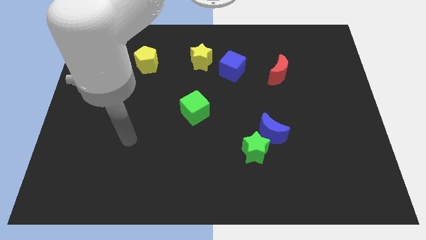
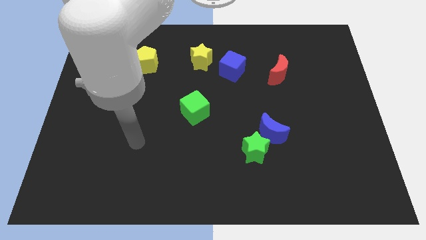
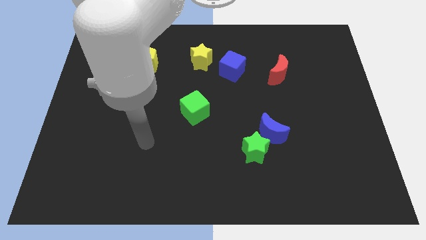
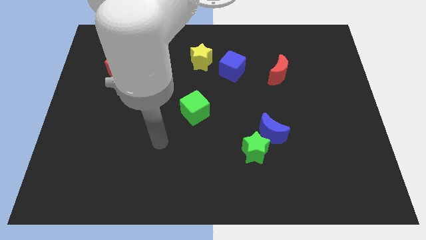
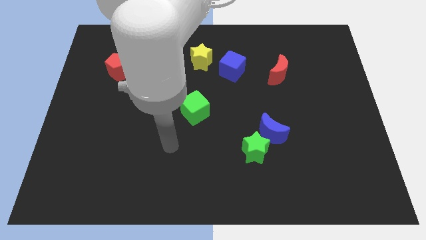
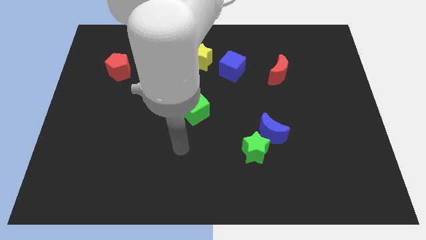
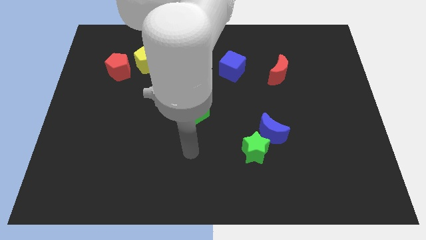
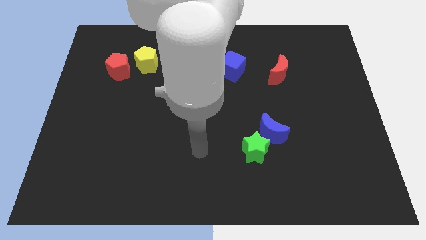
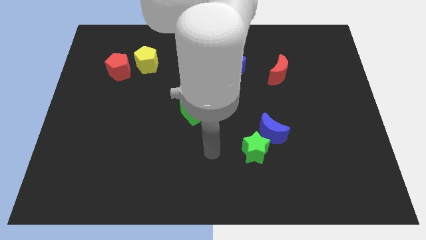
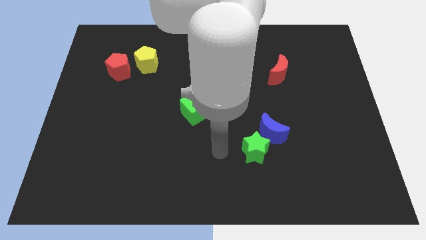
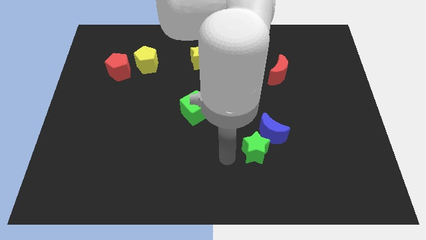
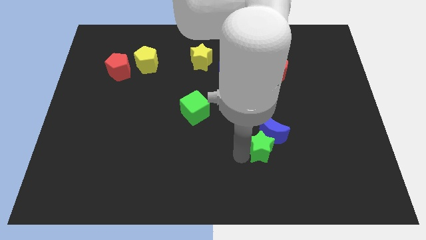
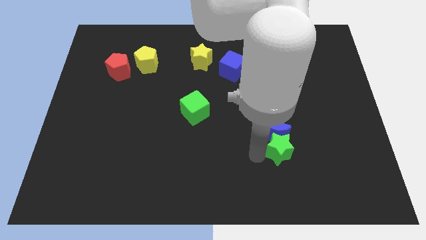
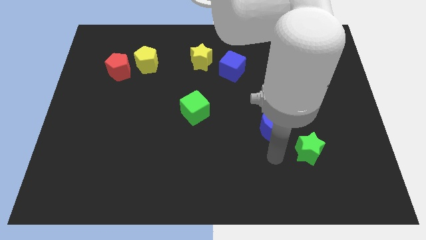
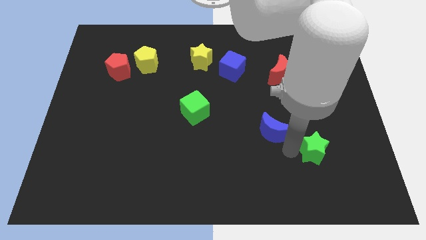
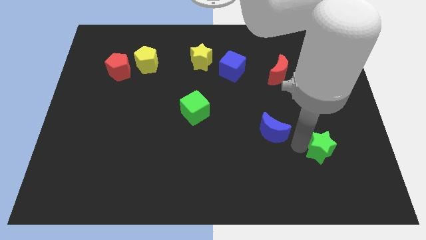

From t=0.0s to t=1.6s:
separate the blue moon from the green star

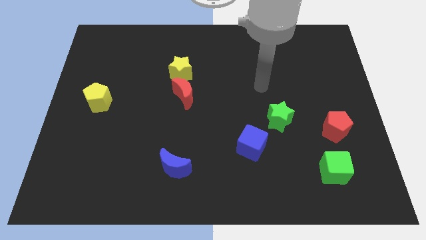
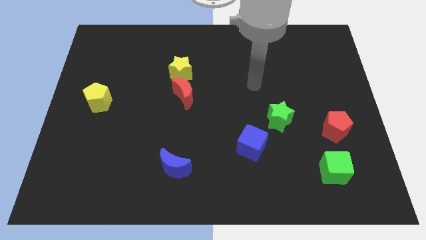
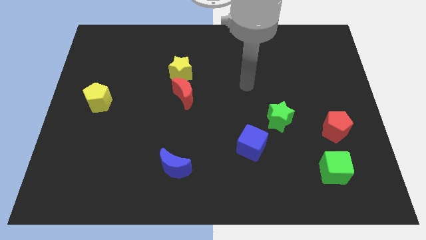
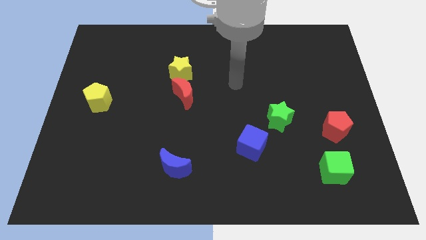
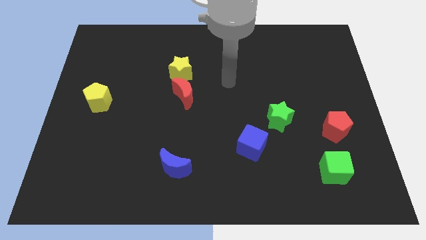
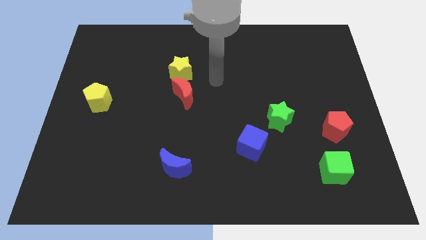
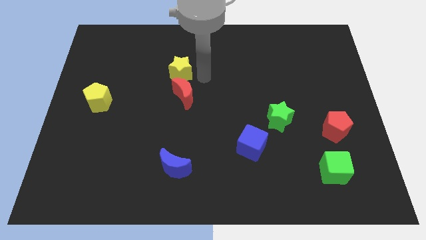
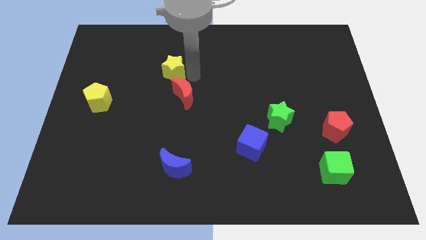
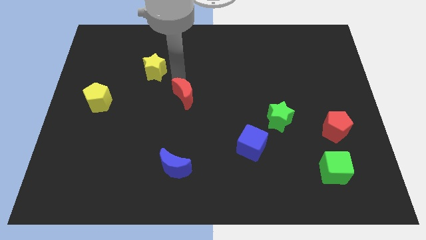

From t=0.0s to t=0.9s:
pull the red moon apart from the yellow star

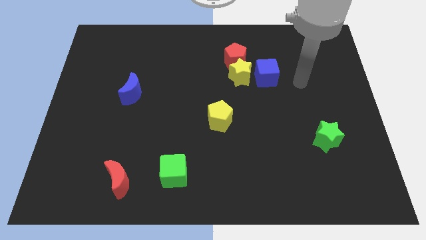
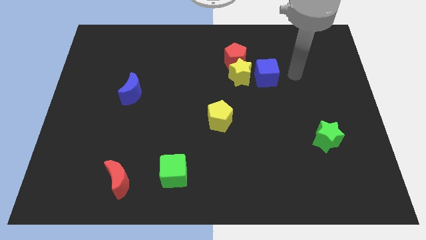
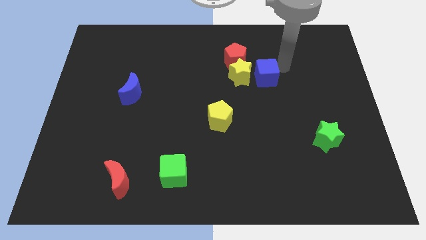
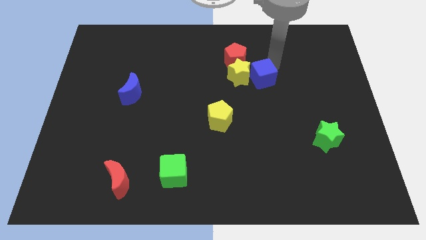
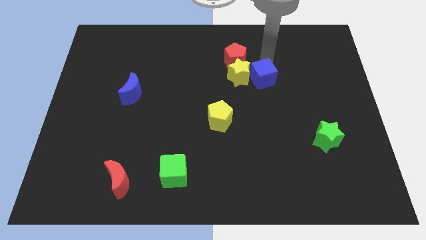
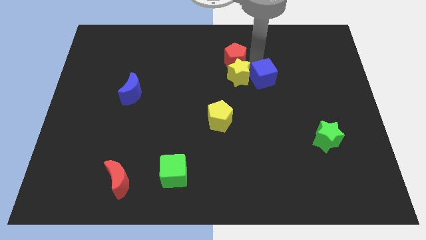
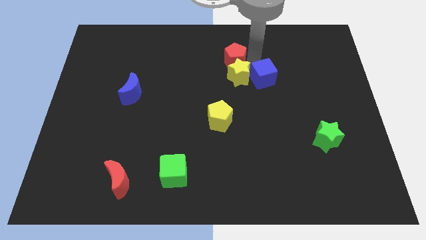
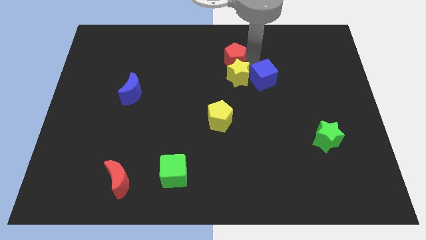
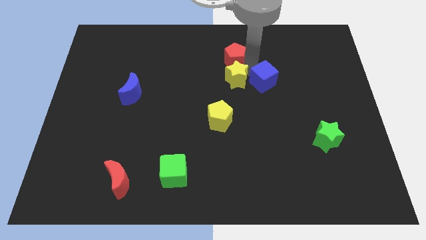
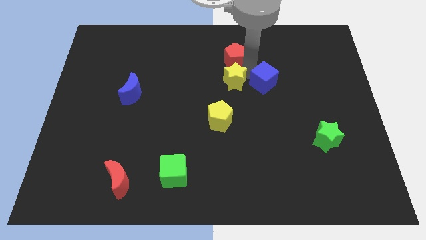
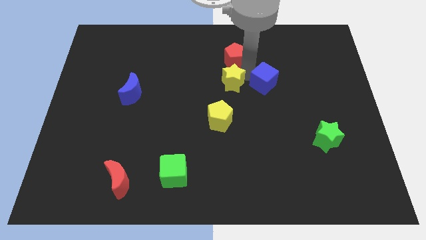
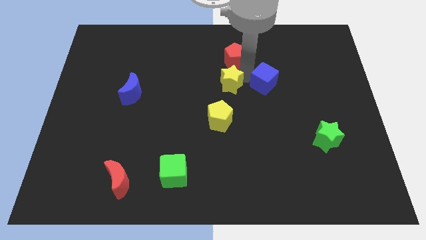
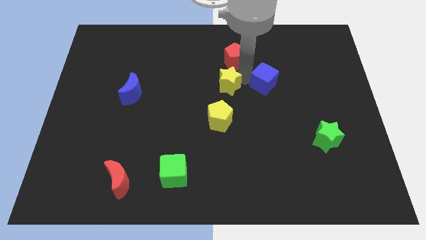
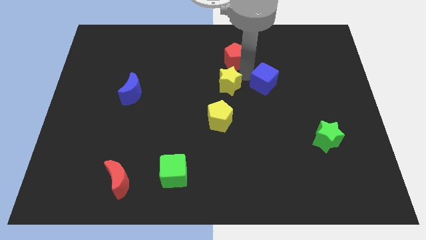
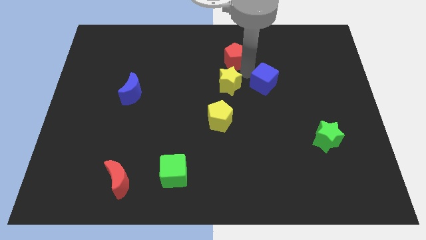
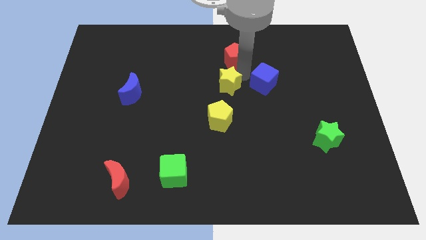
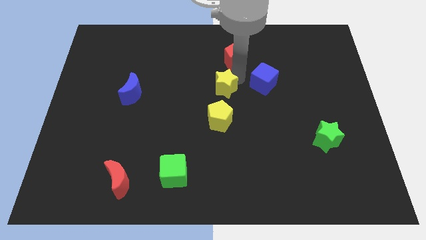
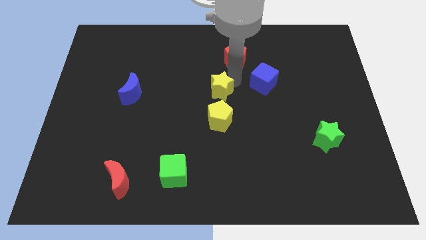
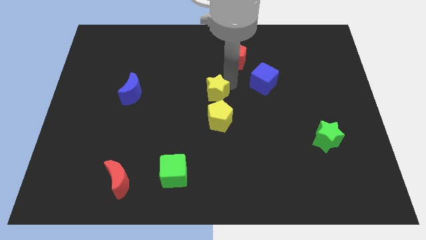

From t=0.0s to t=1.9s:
pull the yellow star apart from the red pentagon and blue cube

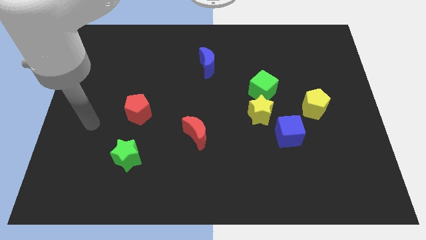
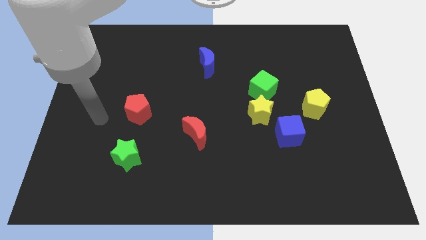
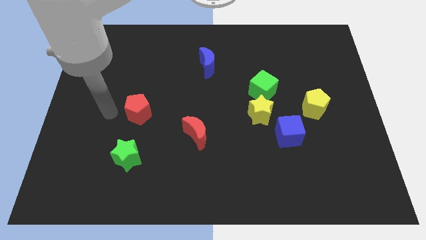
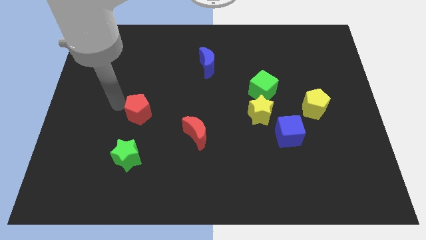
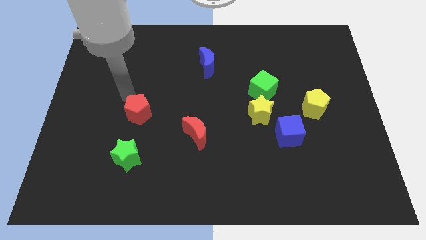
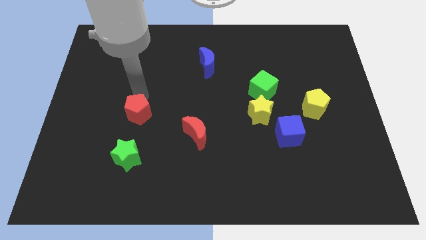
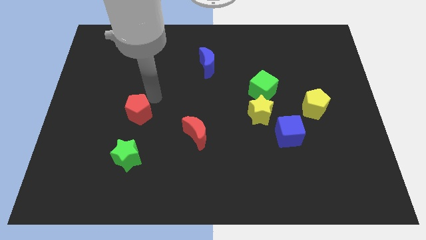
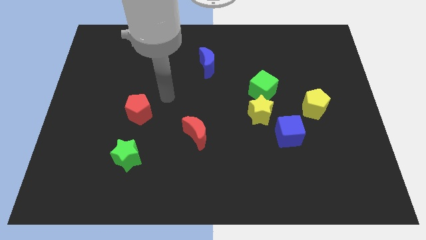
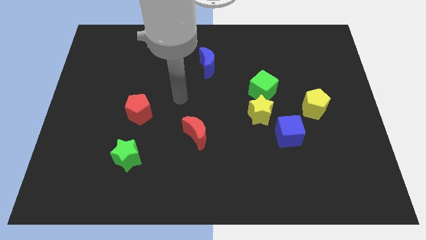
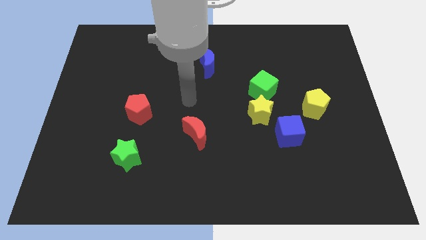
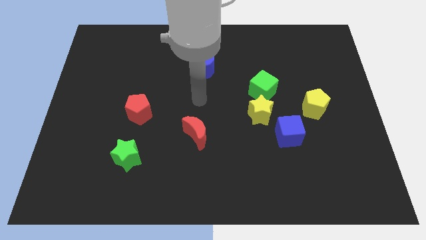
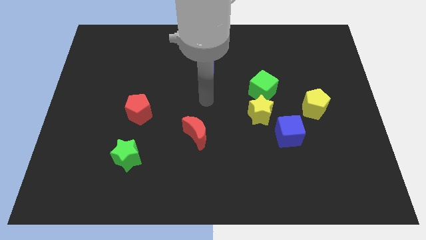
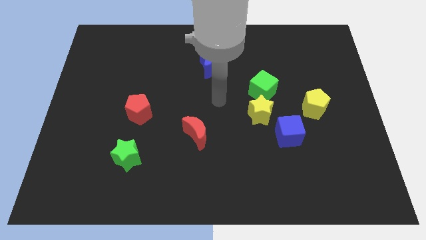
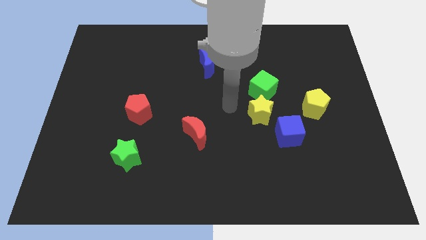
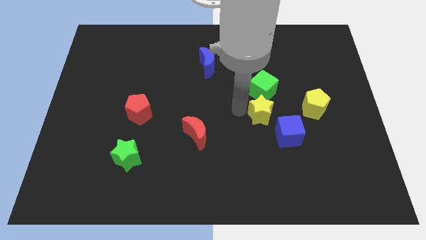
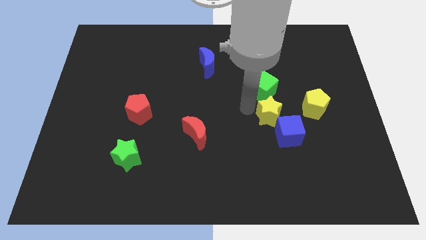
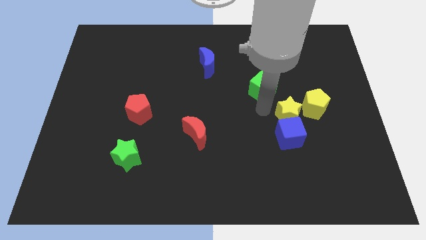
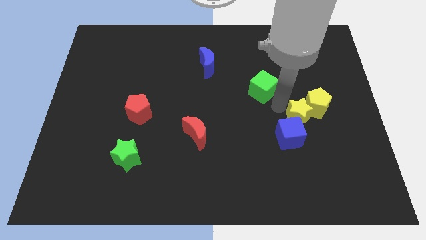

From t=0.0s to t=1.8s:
move the green cube away from the yellow star

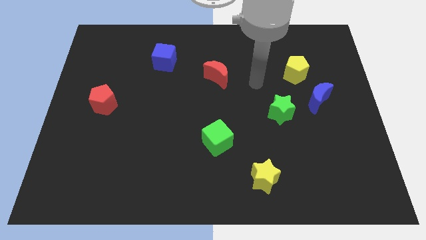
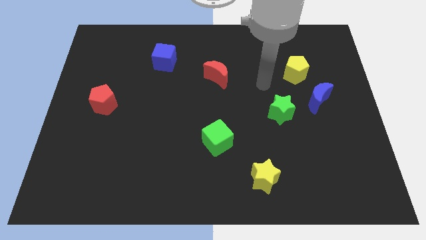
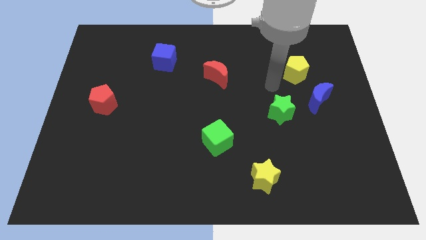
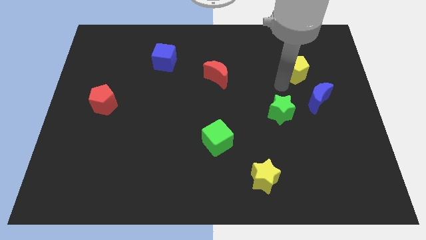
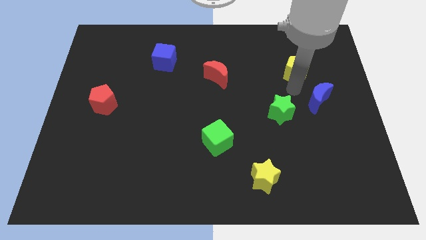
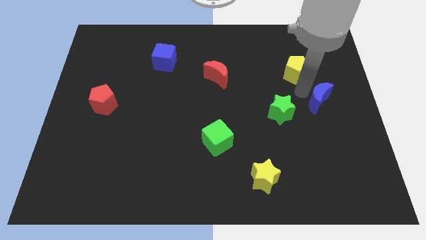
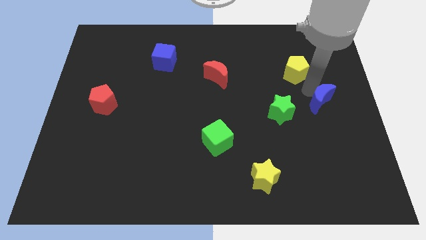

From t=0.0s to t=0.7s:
separate the yellow pentagon from the blue moon

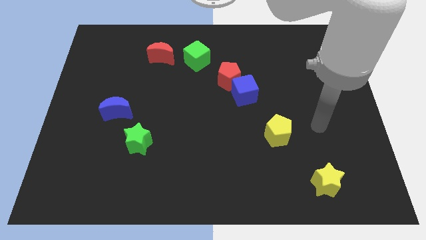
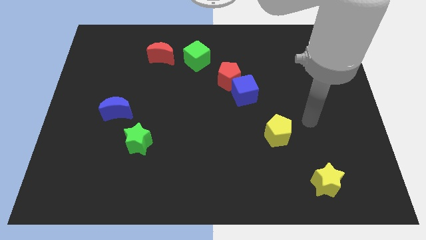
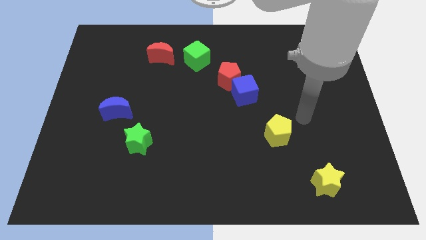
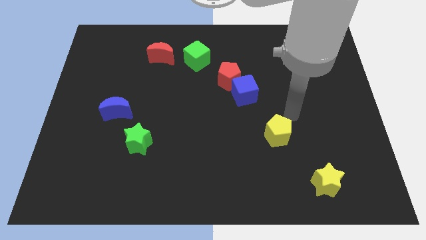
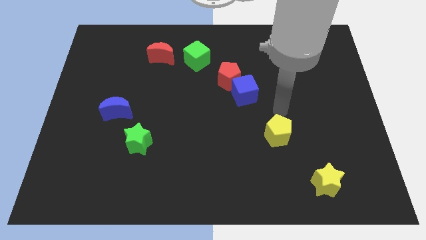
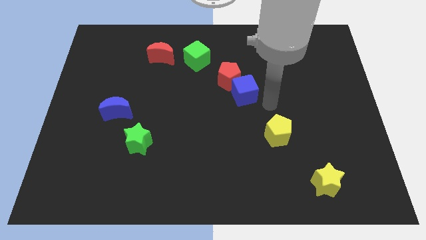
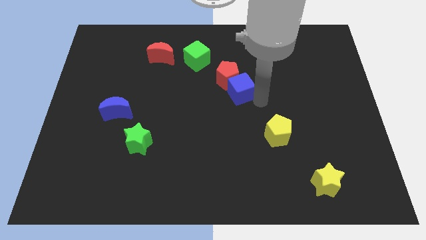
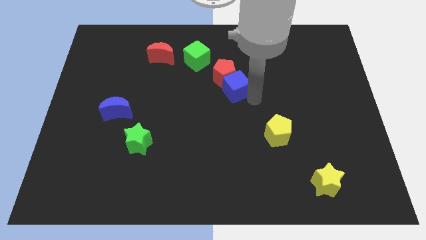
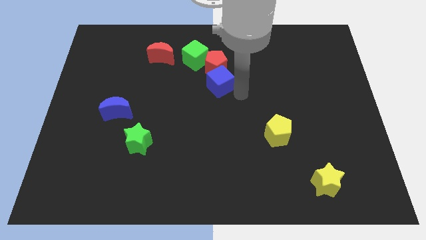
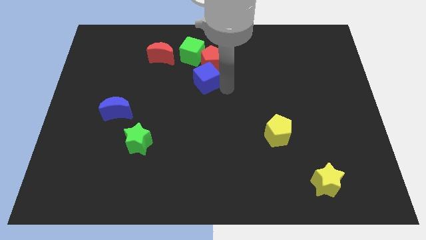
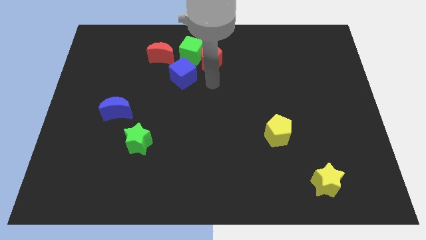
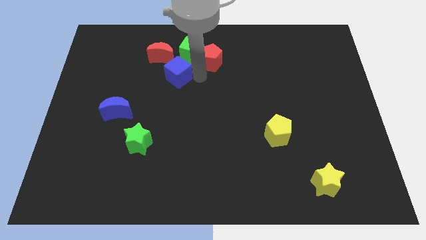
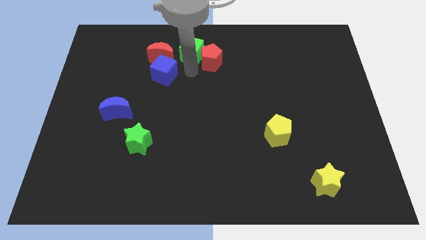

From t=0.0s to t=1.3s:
pull the red pentagon apart from the blue cube

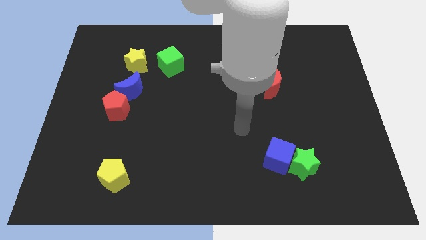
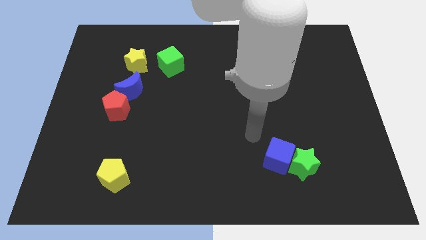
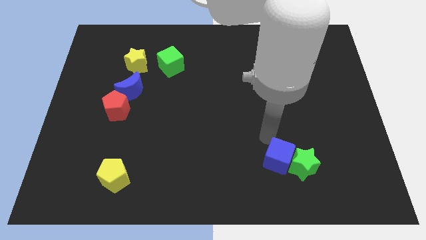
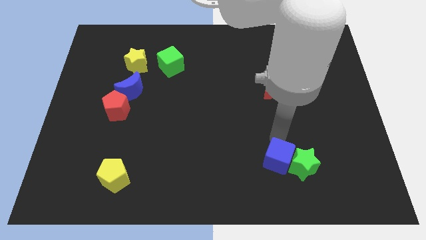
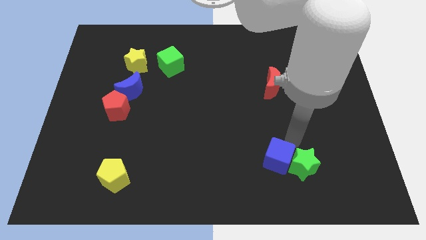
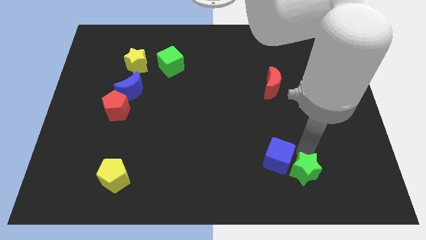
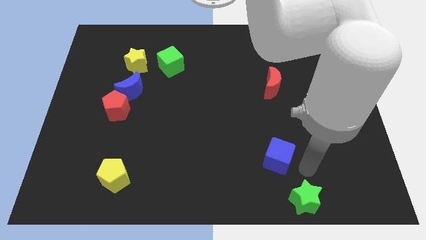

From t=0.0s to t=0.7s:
pull the blue cube apart from the green star

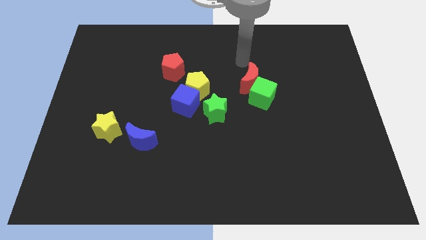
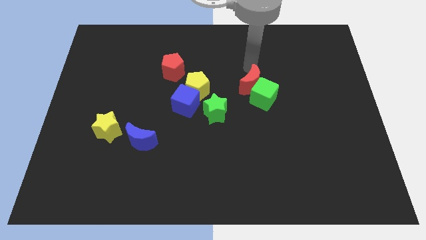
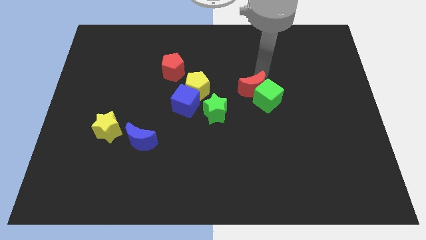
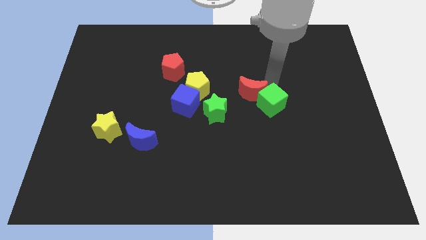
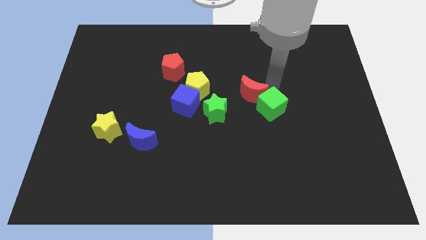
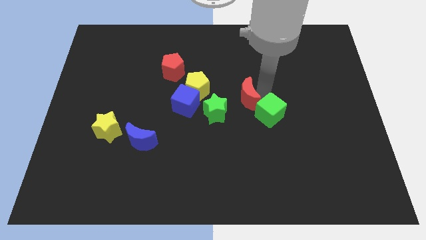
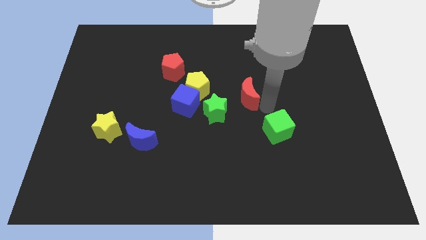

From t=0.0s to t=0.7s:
separate the red moon from the green cube
